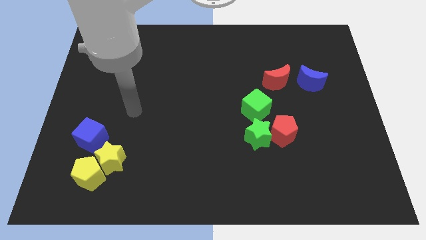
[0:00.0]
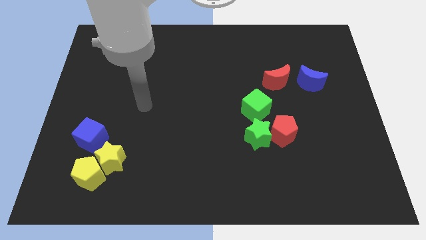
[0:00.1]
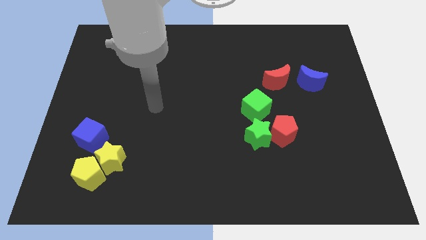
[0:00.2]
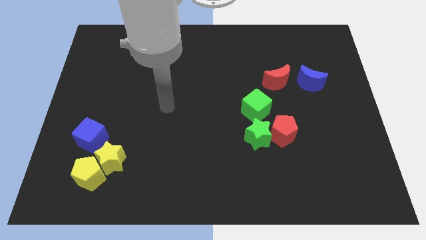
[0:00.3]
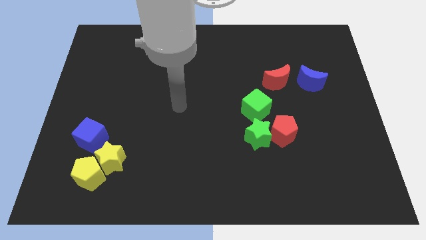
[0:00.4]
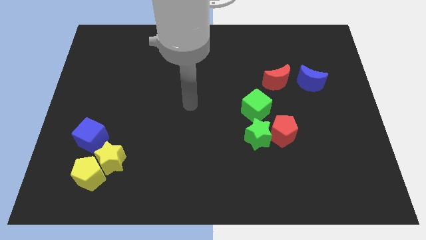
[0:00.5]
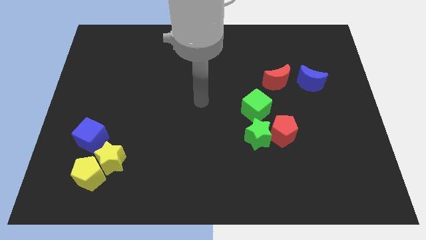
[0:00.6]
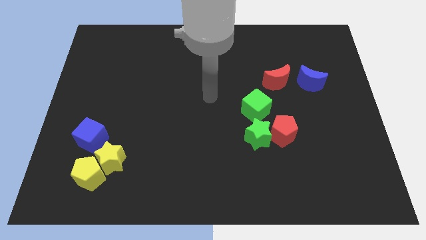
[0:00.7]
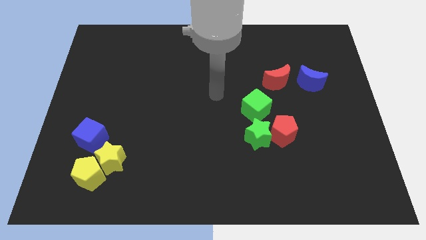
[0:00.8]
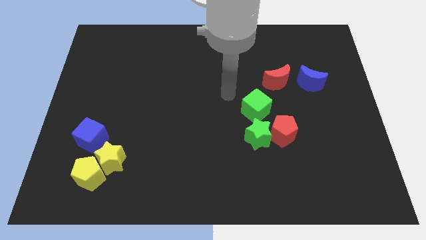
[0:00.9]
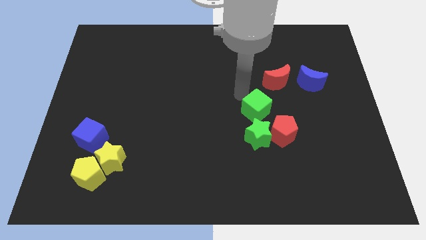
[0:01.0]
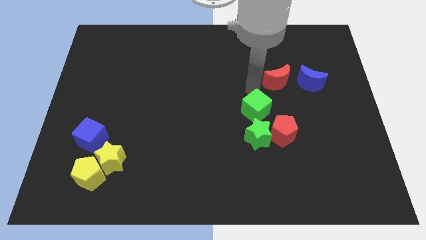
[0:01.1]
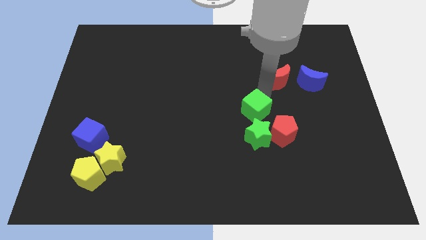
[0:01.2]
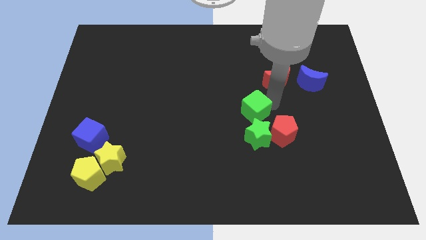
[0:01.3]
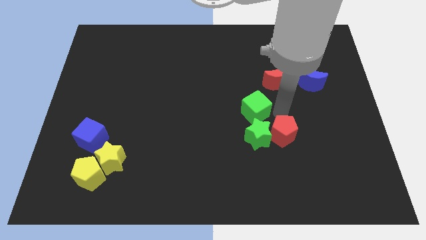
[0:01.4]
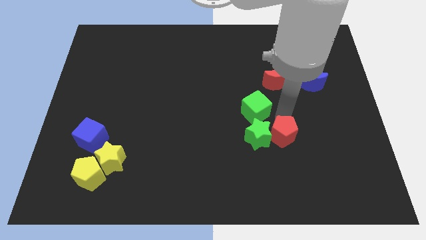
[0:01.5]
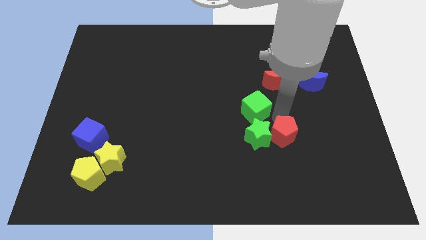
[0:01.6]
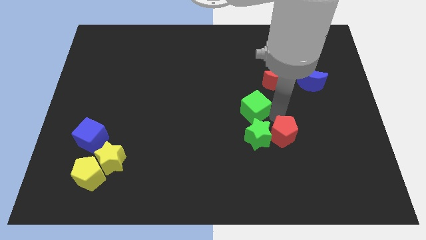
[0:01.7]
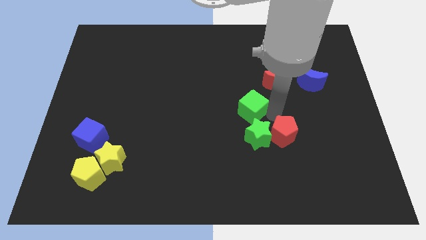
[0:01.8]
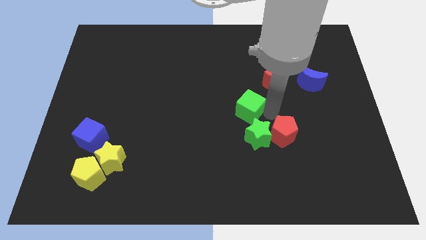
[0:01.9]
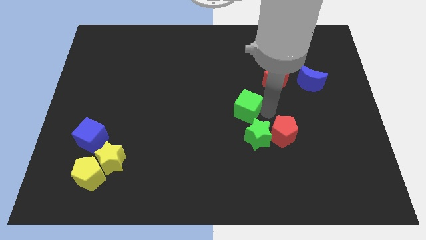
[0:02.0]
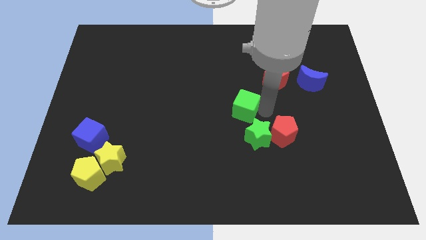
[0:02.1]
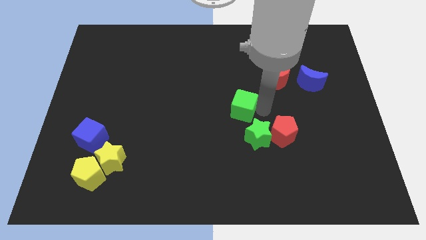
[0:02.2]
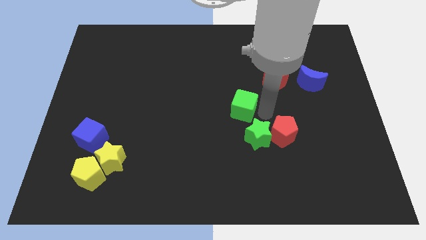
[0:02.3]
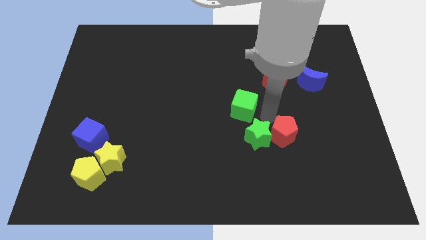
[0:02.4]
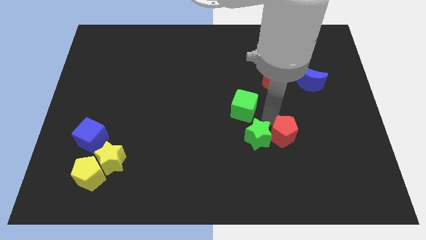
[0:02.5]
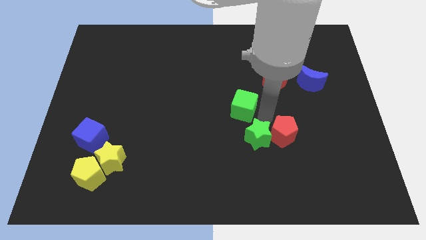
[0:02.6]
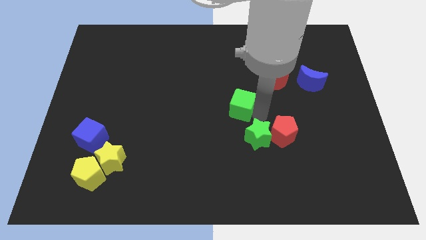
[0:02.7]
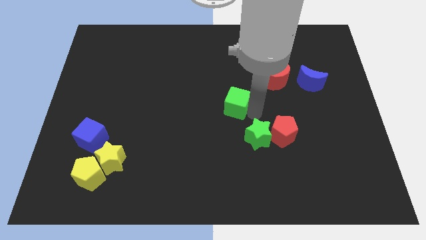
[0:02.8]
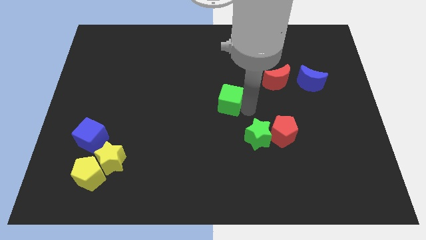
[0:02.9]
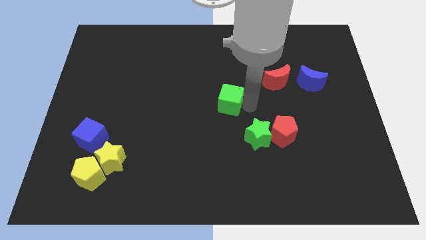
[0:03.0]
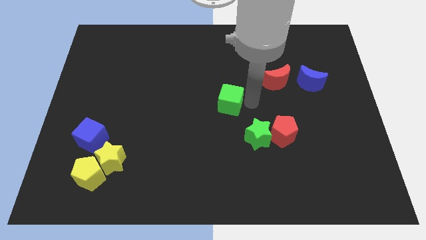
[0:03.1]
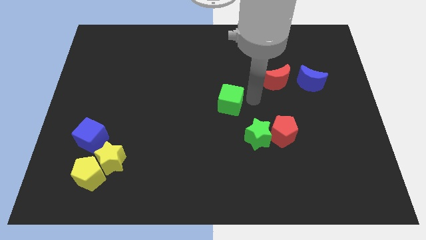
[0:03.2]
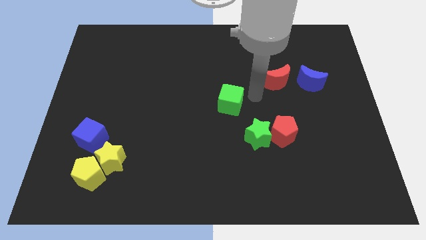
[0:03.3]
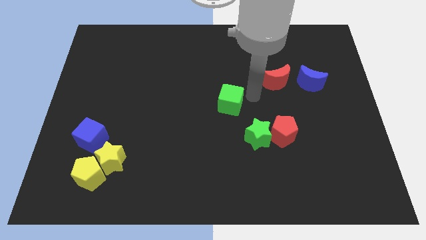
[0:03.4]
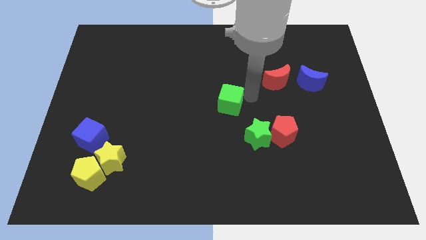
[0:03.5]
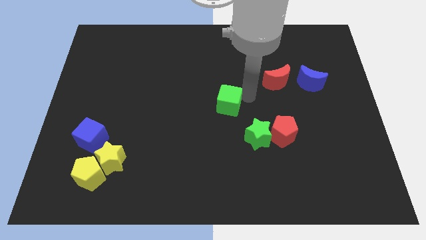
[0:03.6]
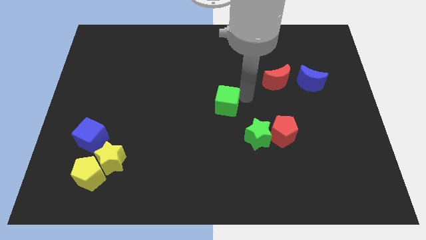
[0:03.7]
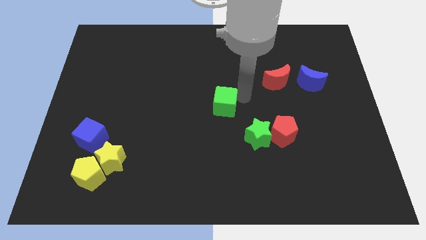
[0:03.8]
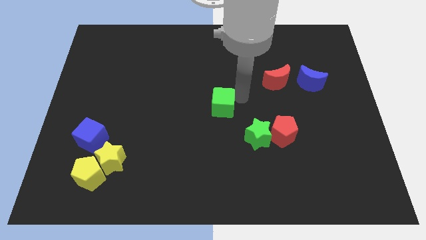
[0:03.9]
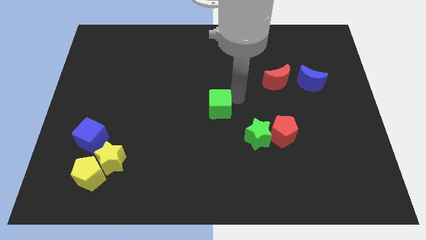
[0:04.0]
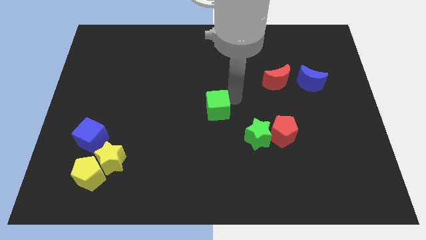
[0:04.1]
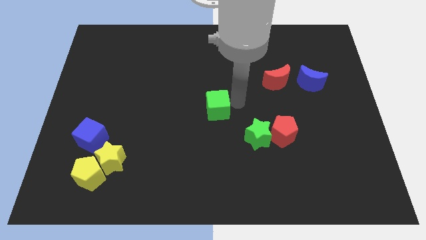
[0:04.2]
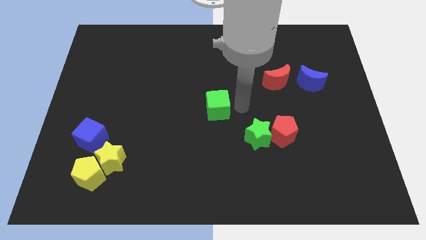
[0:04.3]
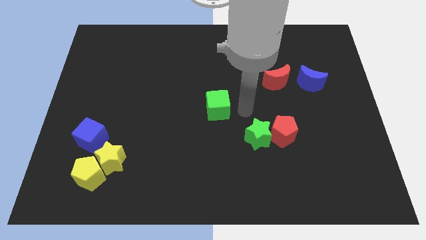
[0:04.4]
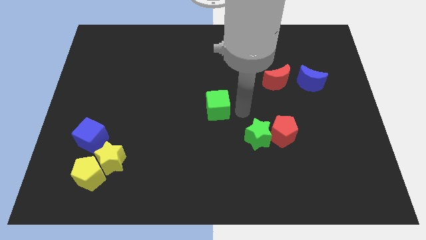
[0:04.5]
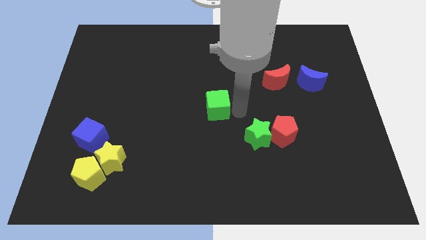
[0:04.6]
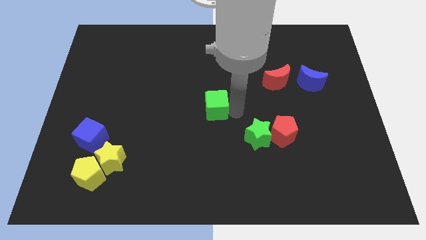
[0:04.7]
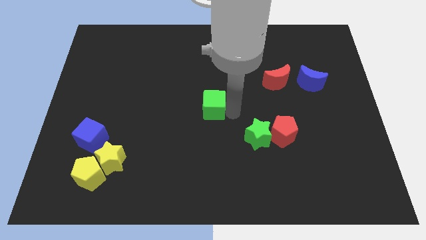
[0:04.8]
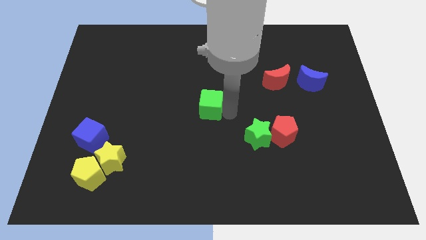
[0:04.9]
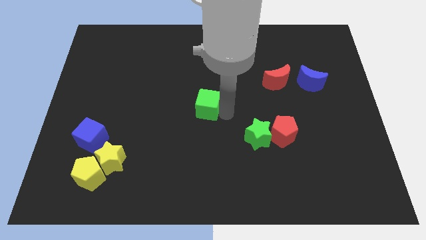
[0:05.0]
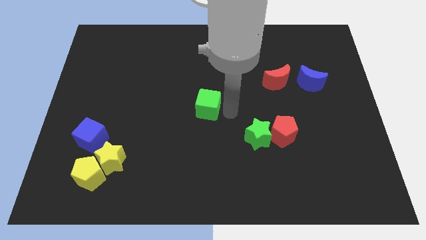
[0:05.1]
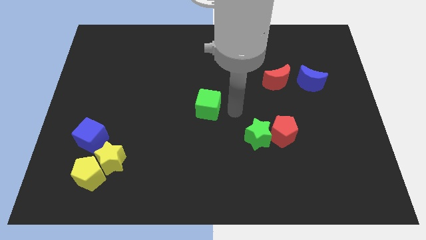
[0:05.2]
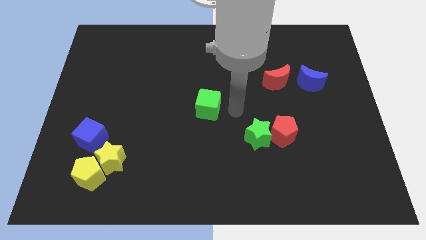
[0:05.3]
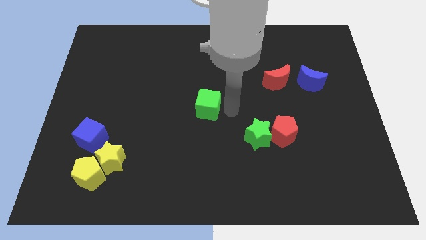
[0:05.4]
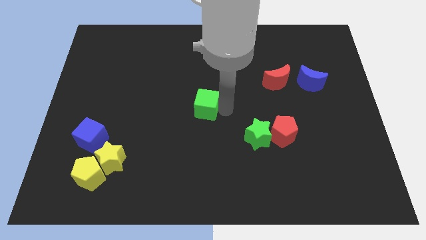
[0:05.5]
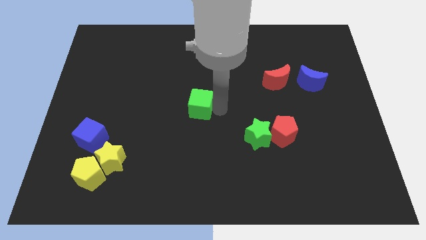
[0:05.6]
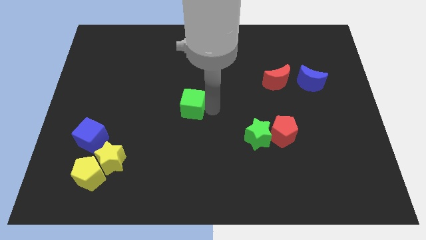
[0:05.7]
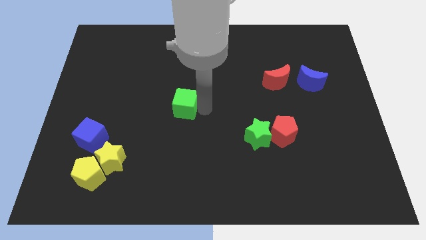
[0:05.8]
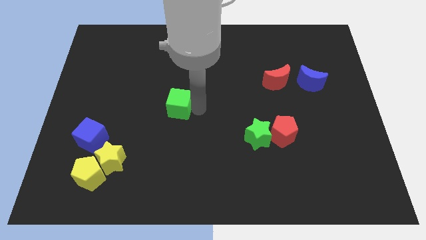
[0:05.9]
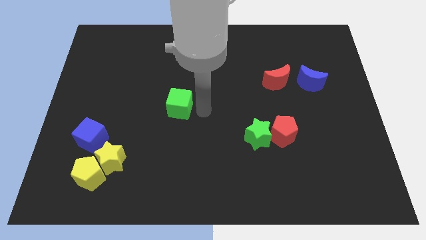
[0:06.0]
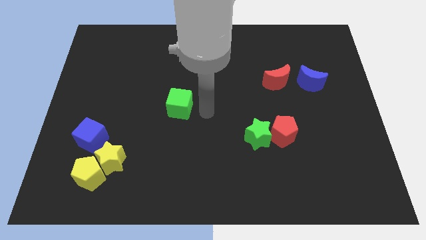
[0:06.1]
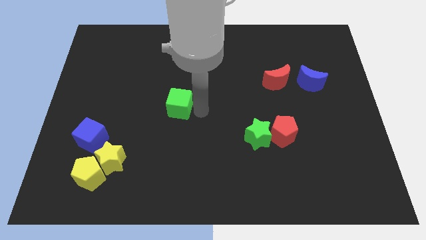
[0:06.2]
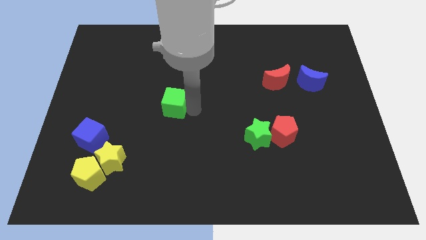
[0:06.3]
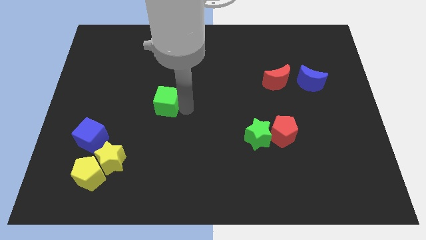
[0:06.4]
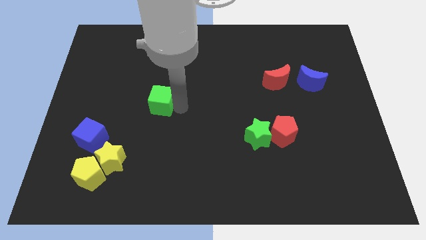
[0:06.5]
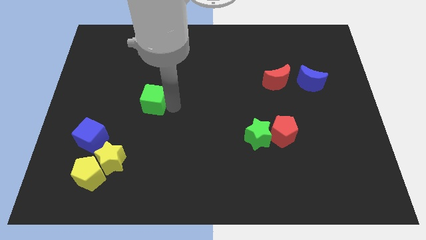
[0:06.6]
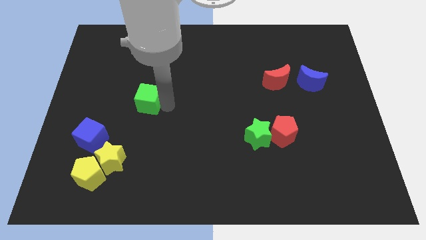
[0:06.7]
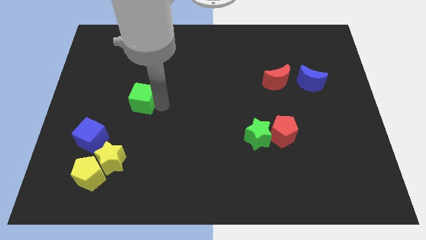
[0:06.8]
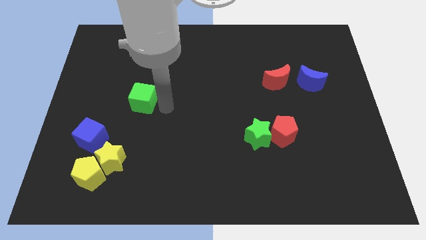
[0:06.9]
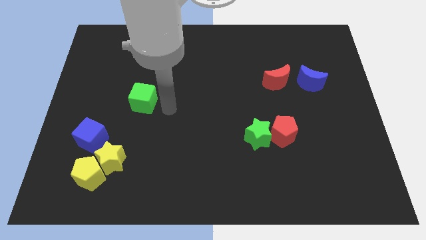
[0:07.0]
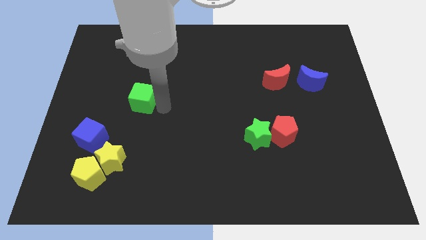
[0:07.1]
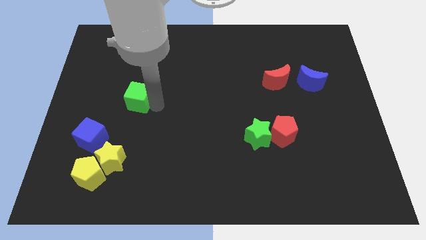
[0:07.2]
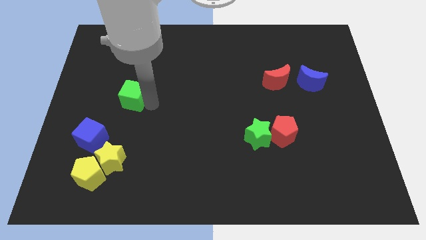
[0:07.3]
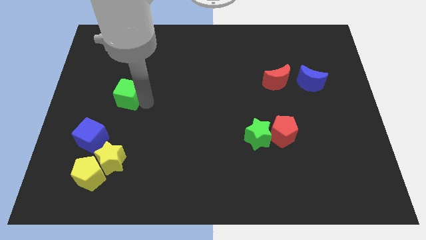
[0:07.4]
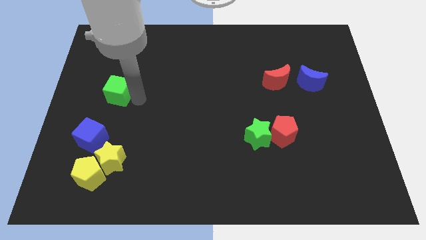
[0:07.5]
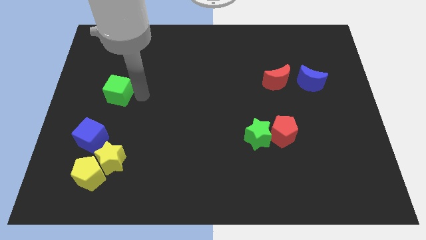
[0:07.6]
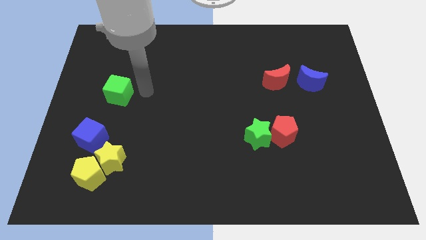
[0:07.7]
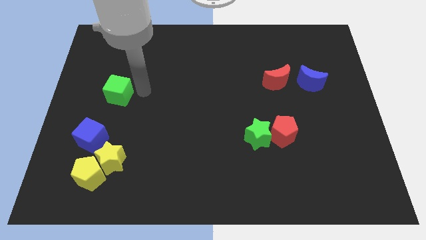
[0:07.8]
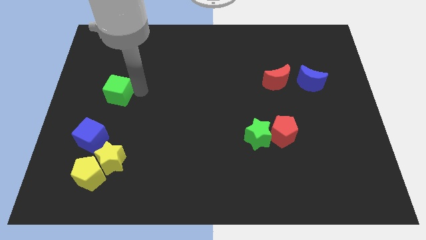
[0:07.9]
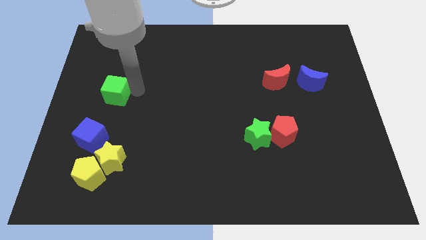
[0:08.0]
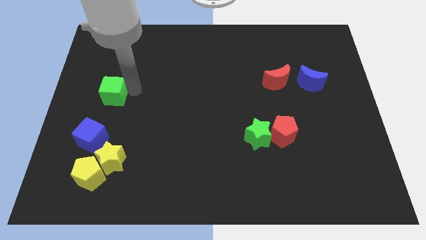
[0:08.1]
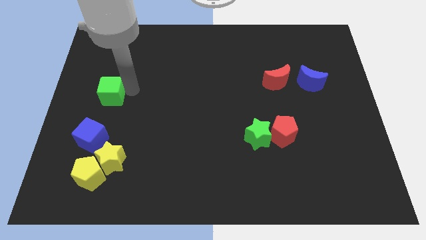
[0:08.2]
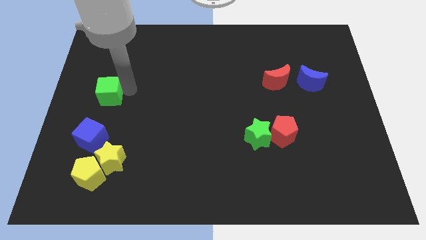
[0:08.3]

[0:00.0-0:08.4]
move the green cube to the center left
